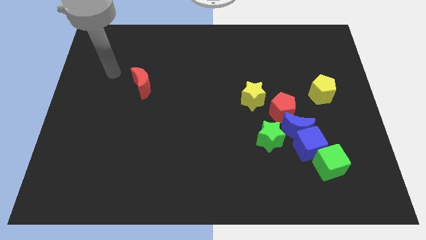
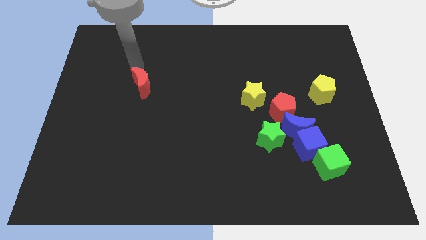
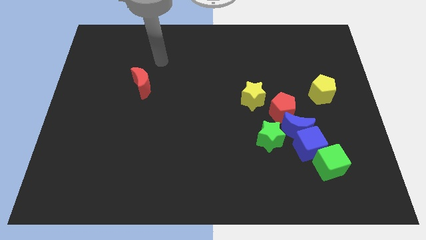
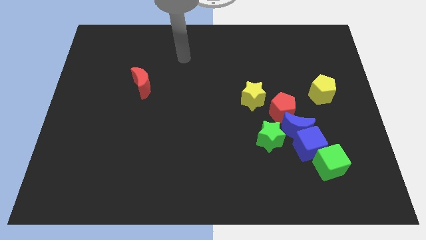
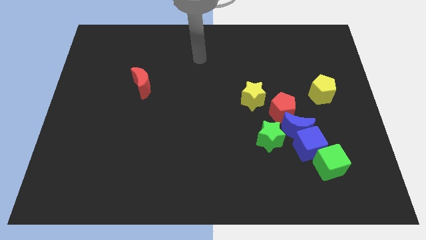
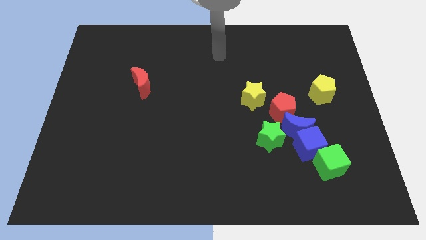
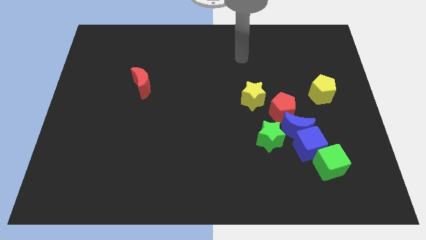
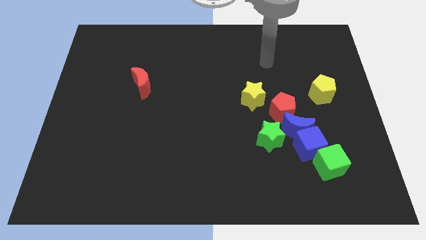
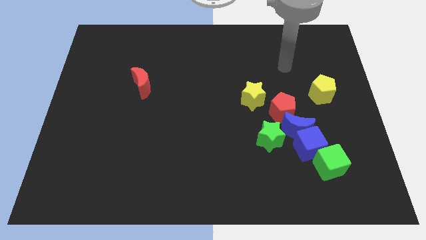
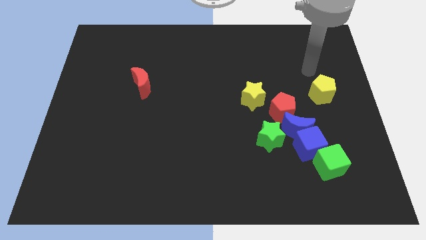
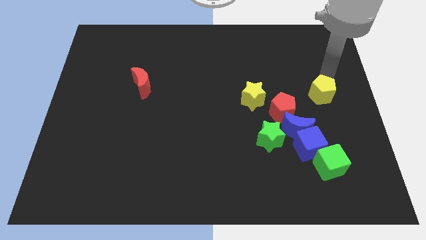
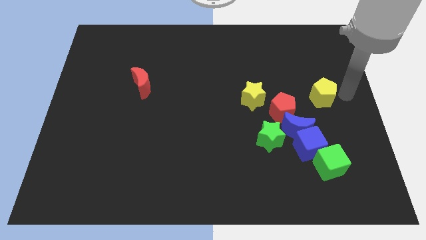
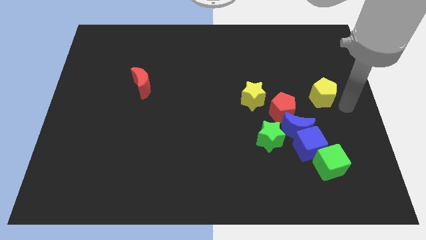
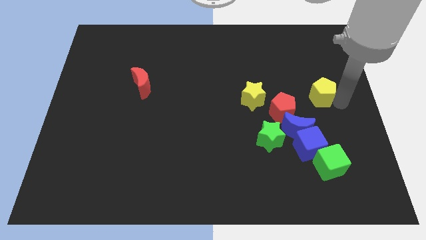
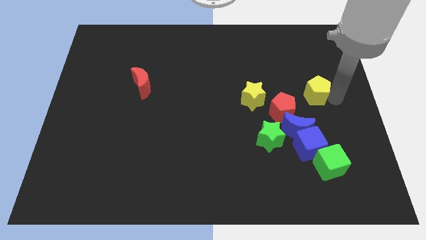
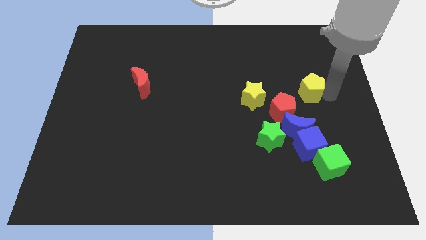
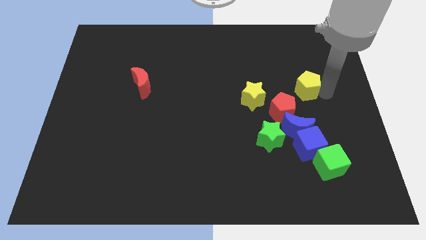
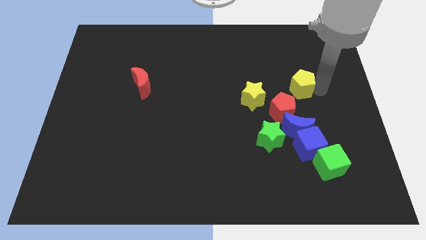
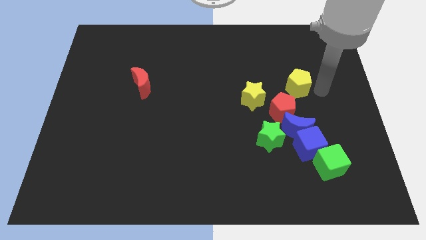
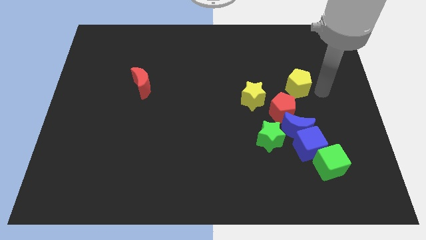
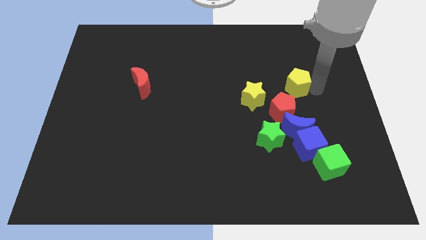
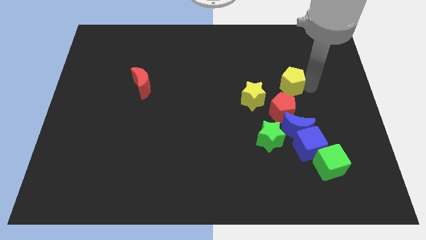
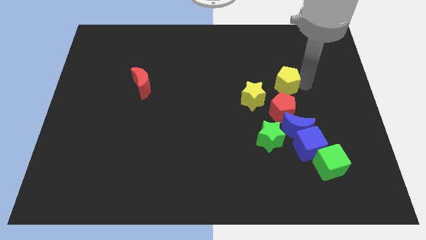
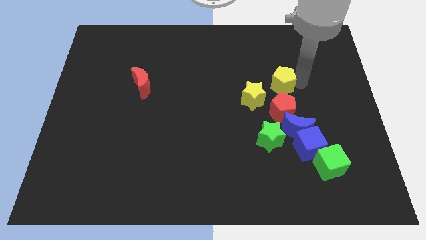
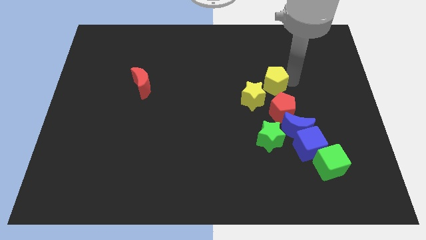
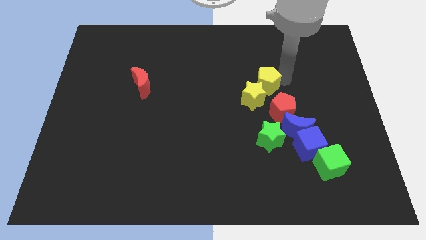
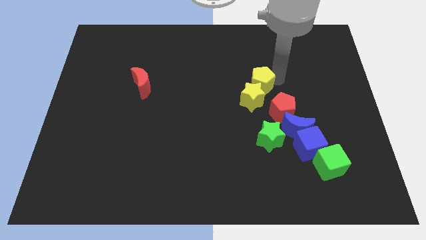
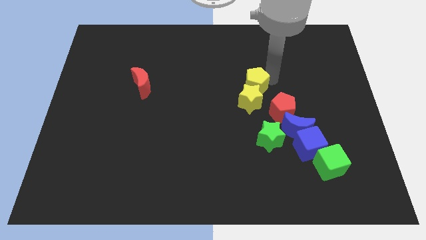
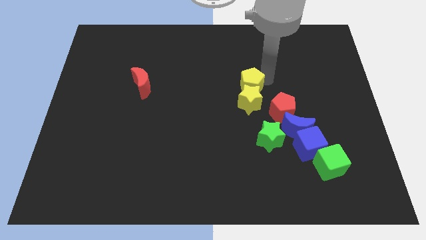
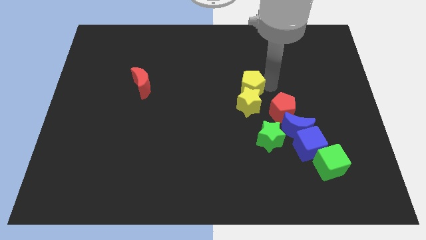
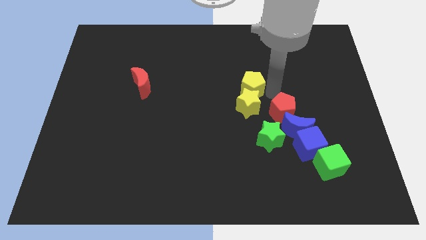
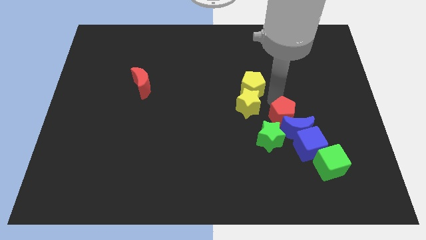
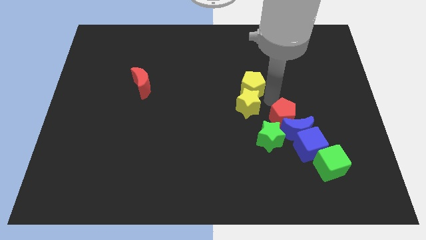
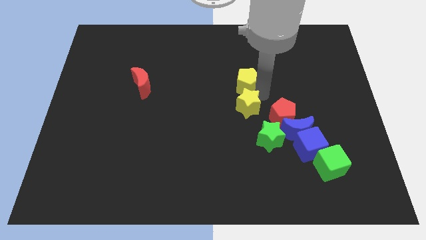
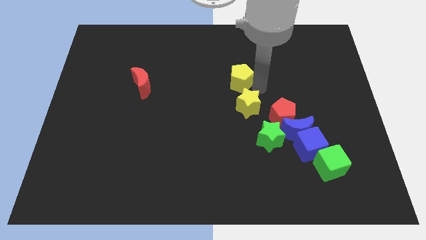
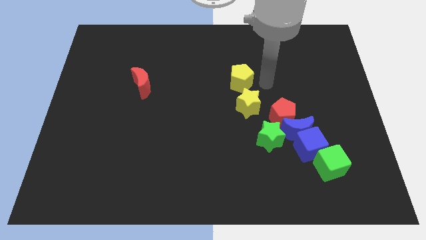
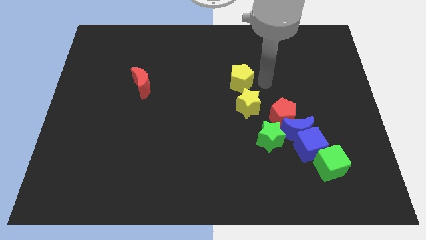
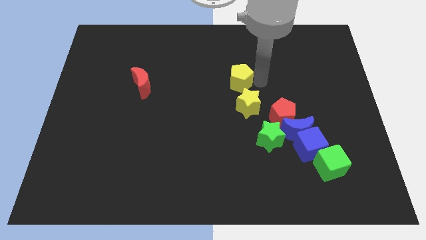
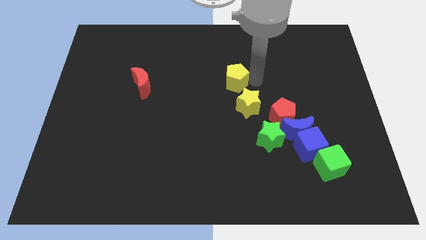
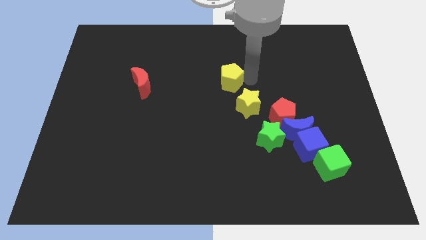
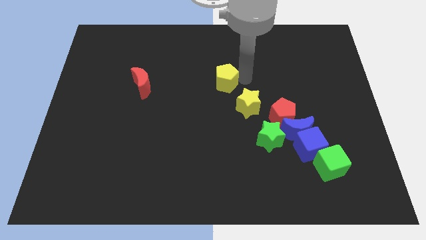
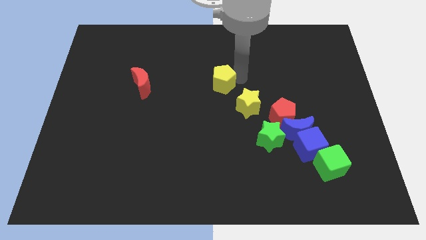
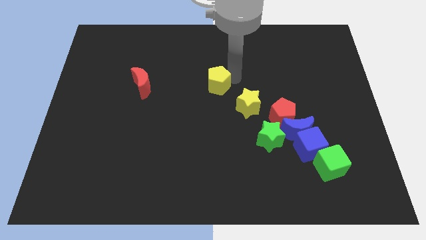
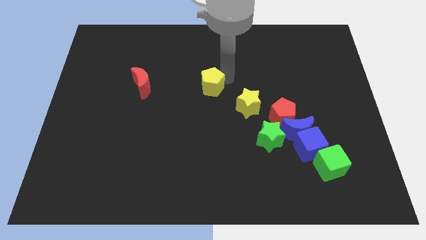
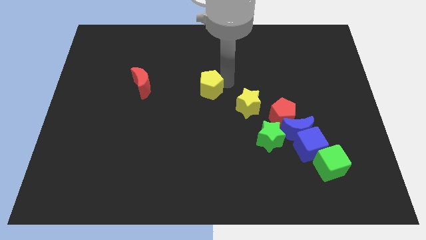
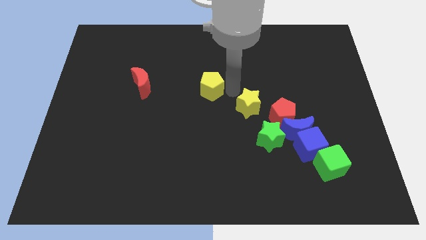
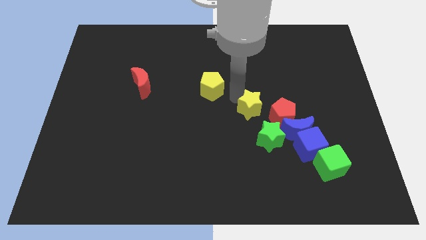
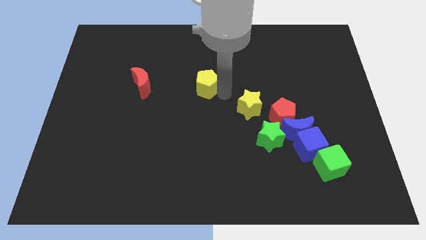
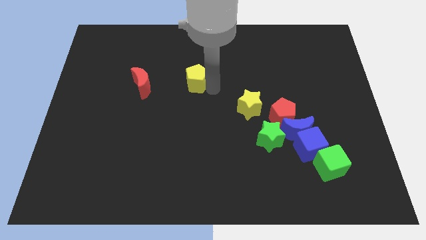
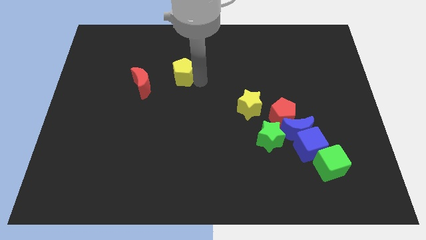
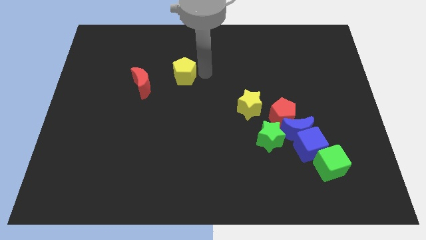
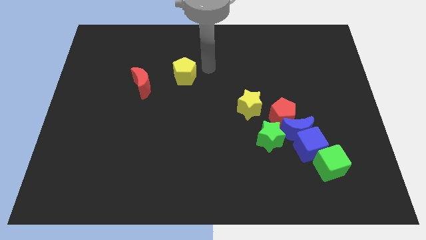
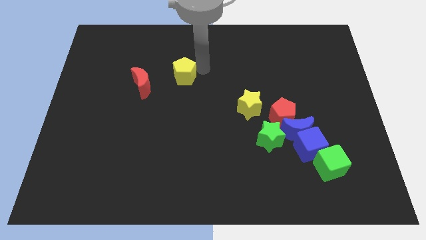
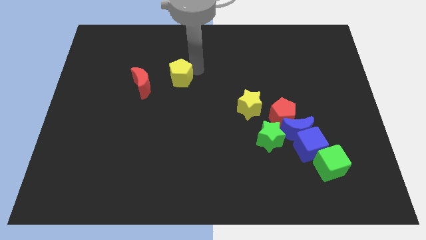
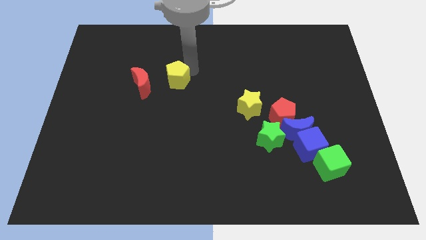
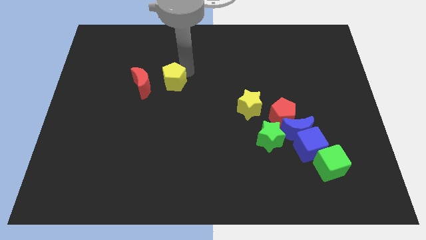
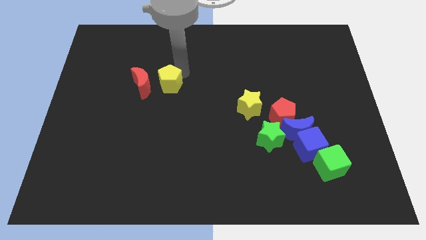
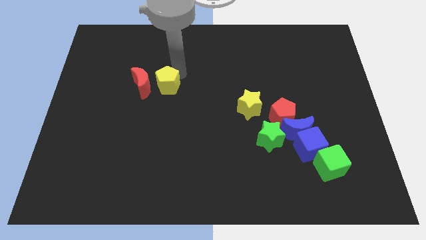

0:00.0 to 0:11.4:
push the yellow pentagon next to the red moon

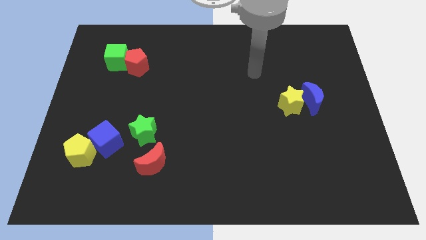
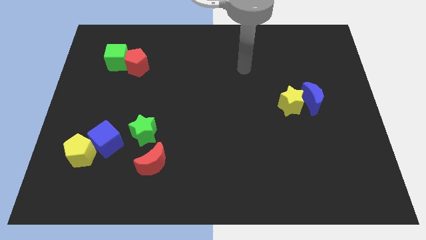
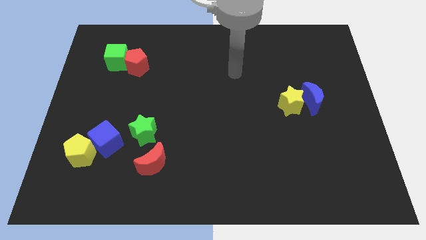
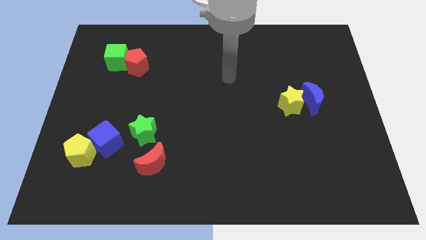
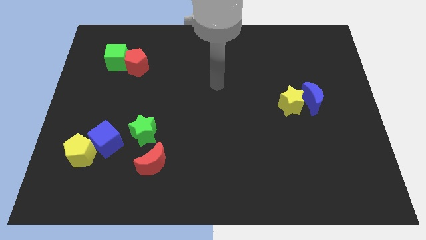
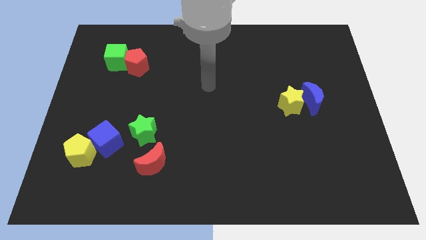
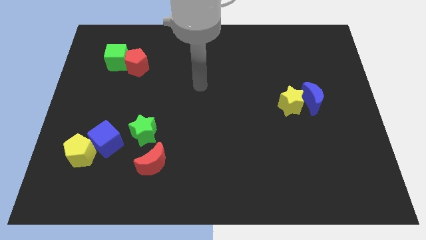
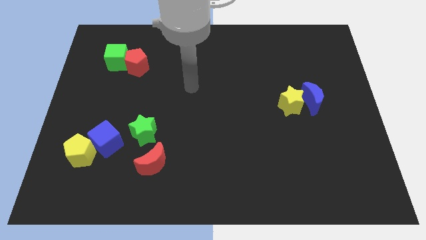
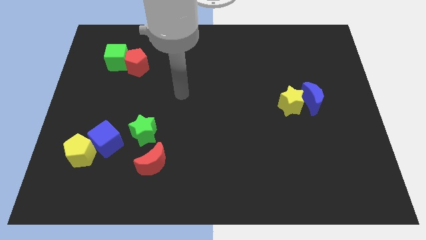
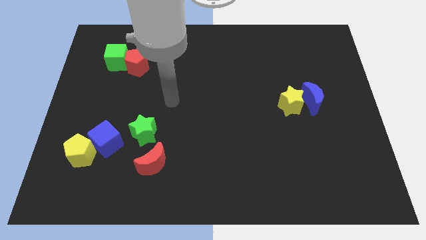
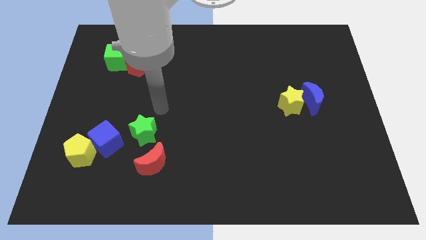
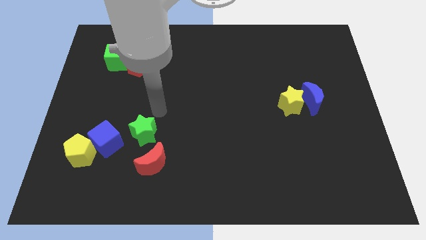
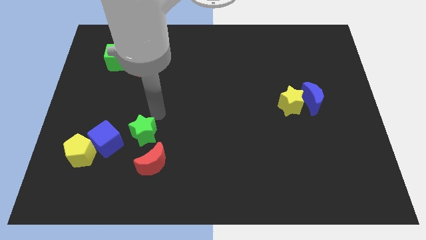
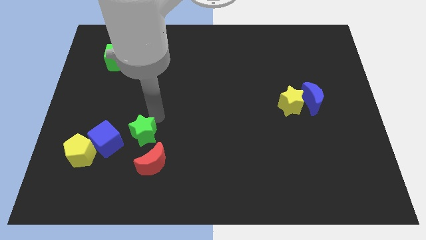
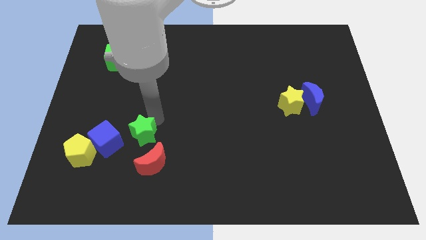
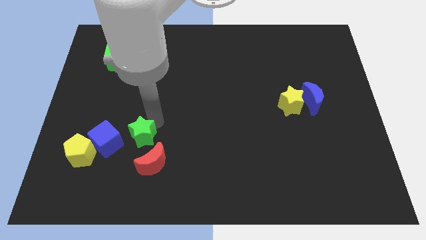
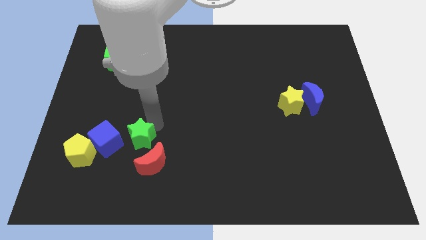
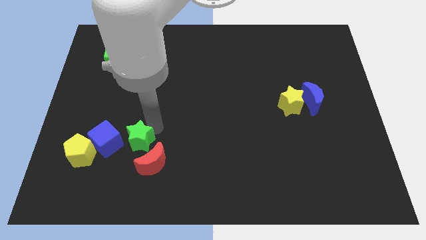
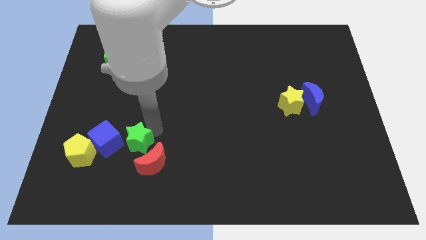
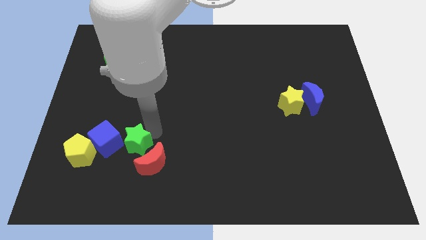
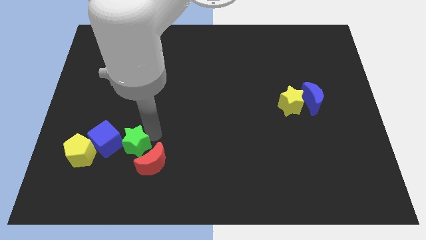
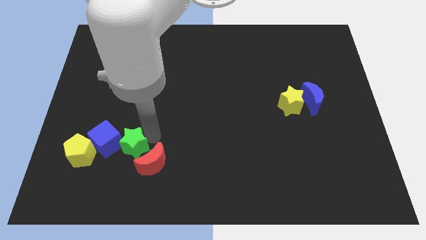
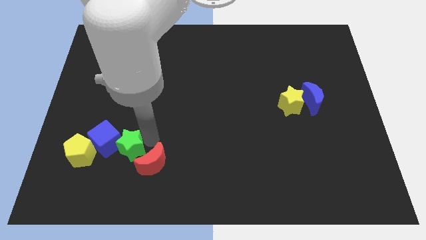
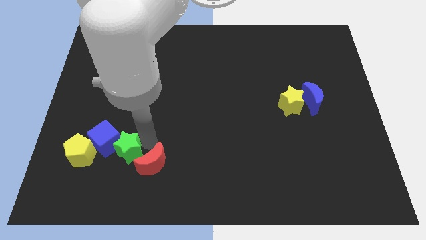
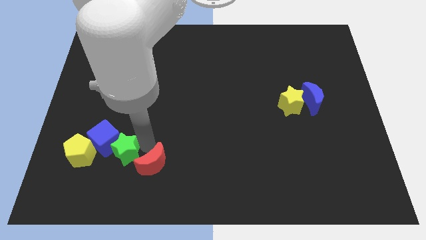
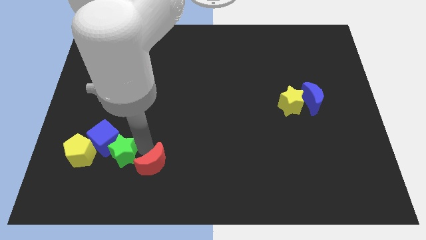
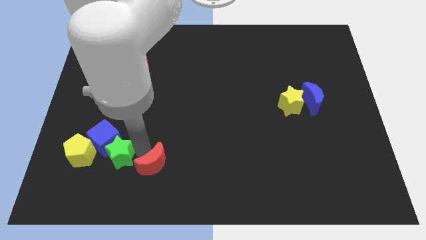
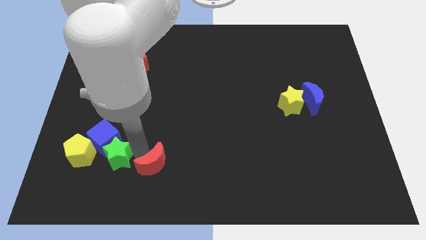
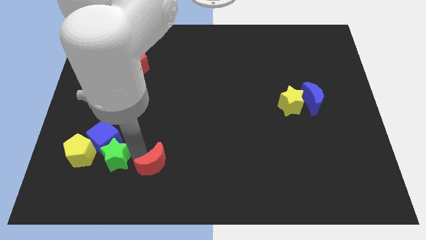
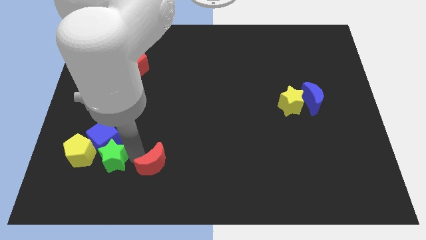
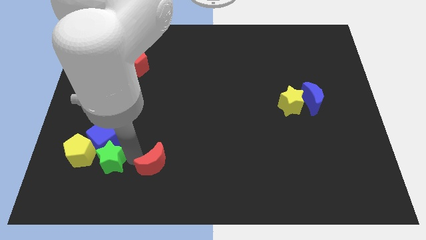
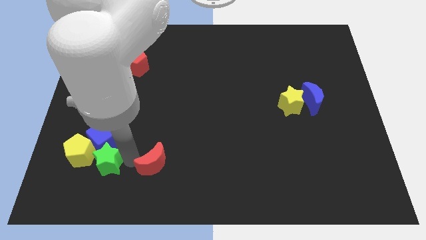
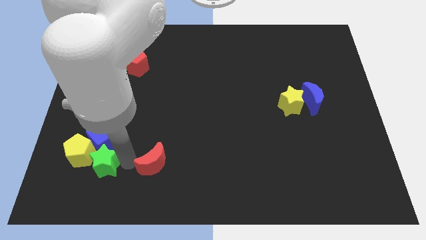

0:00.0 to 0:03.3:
push the green star to the yellow pentagon
